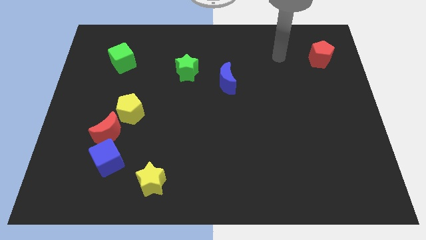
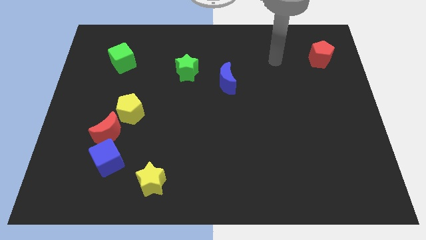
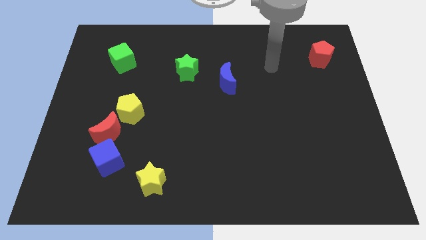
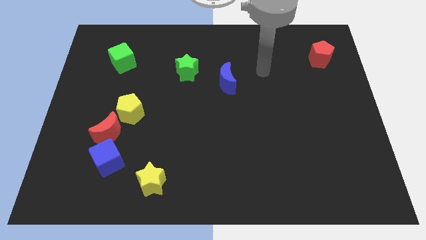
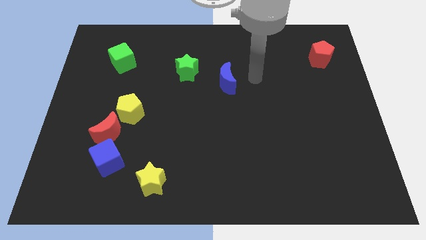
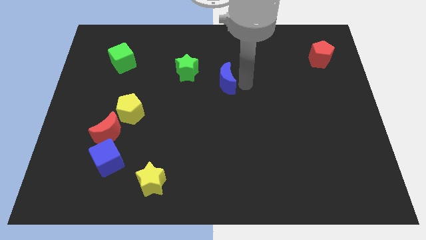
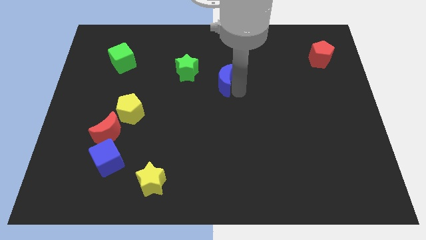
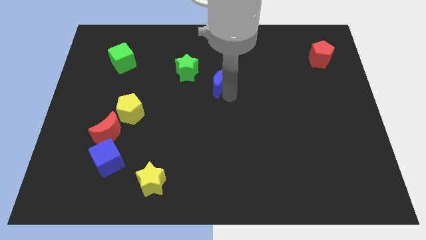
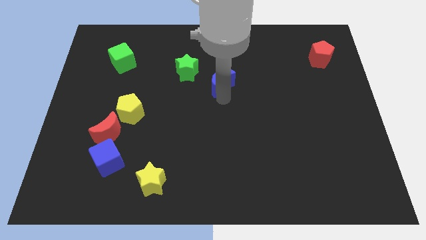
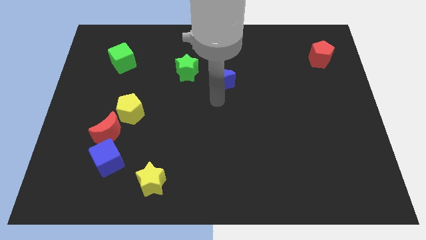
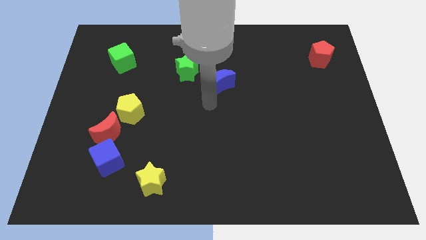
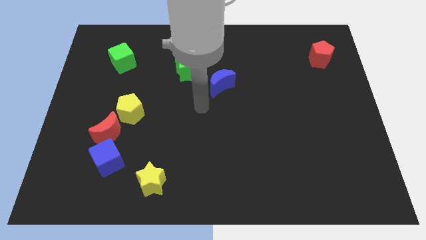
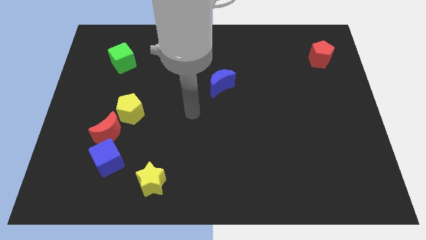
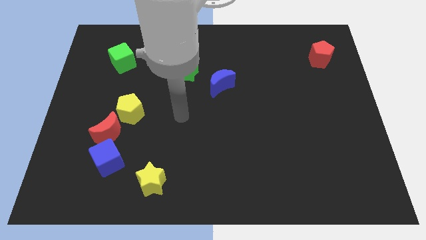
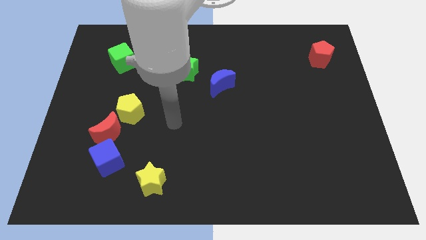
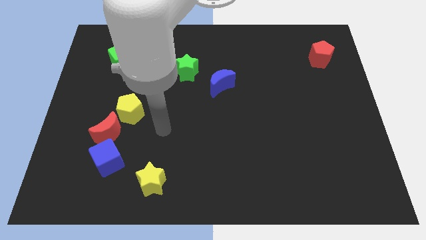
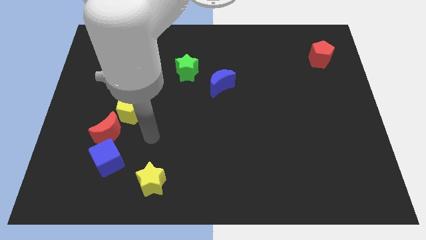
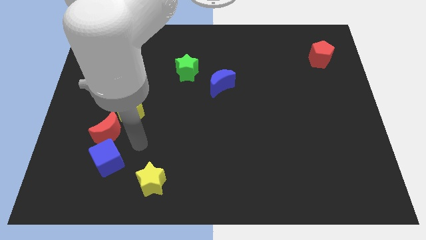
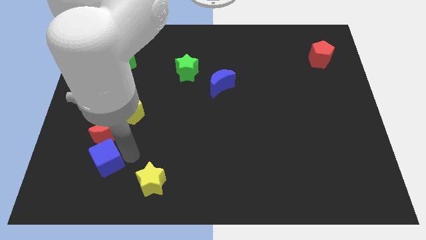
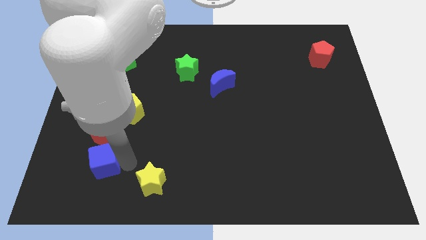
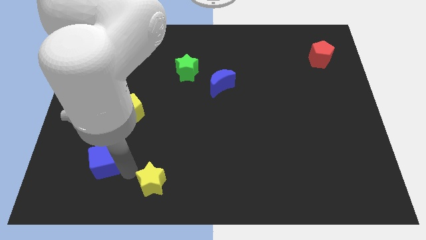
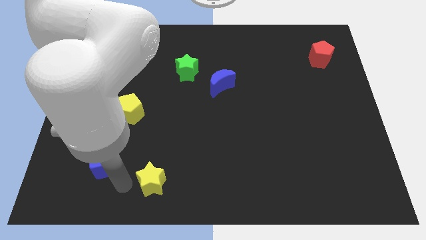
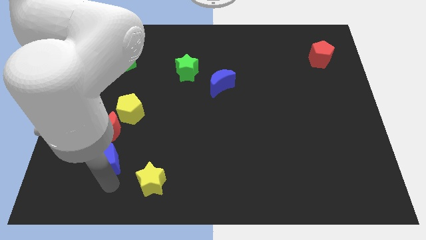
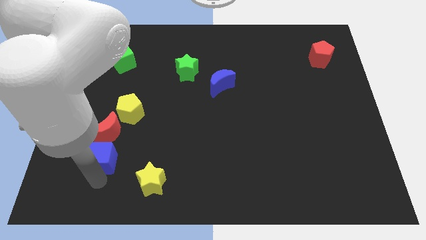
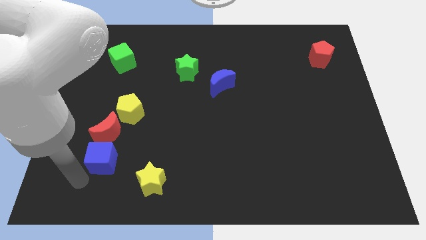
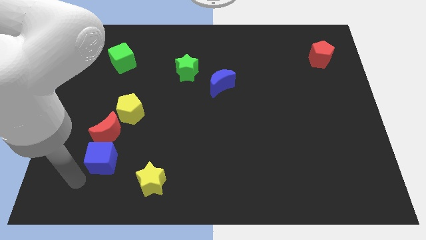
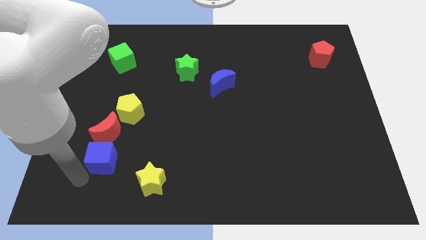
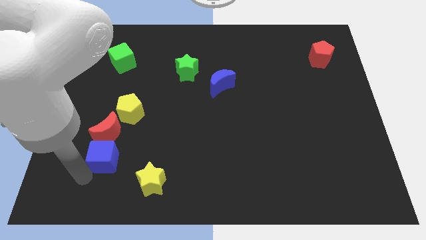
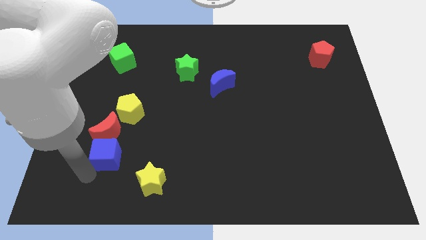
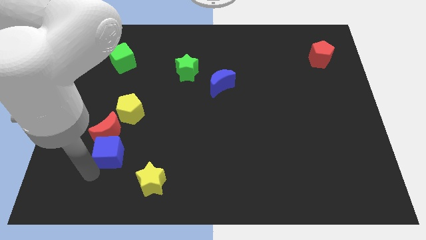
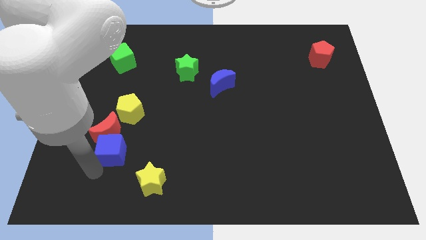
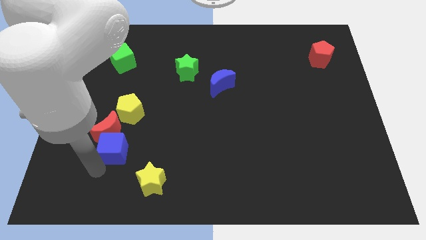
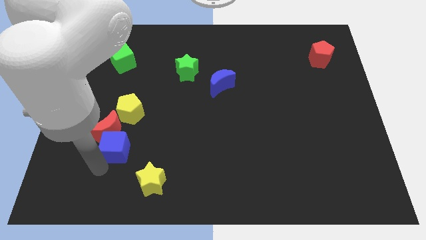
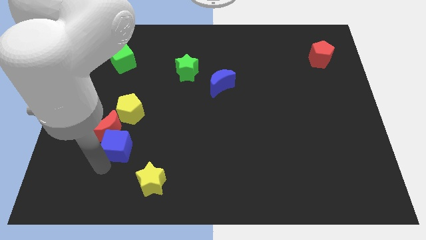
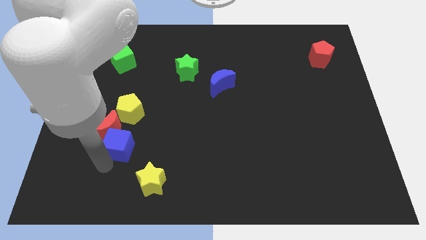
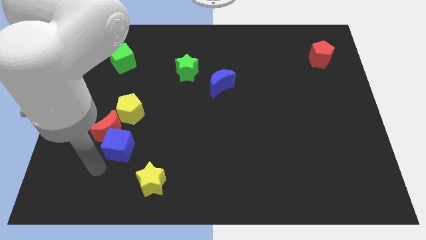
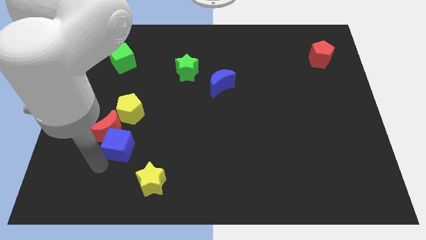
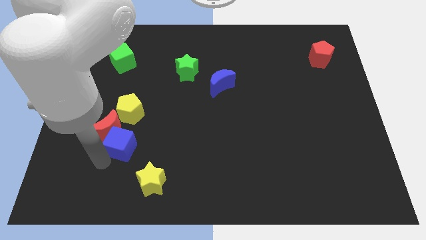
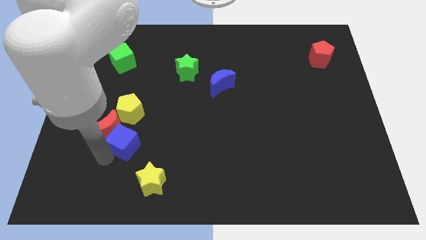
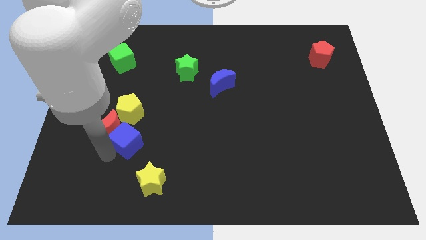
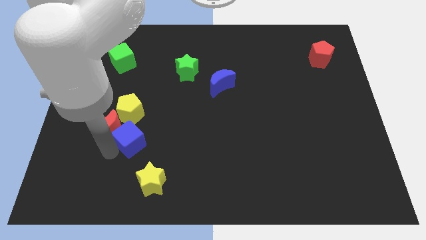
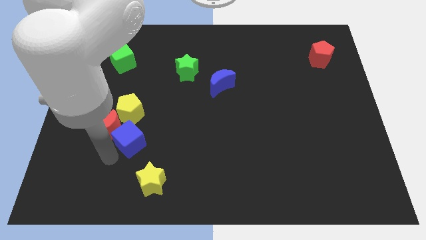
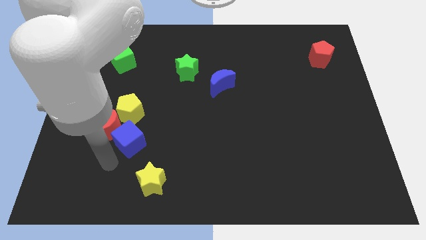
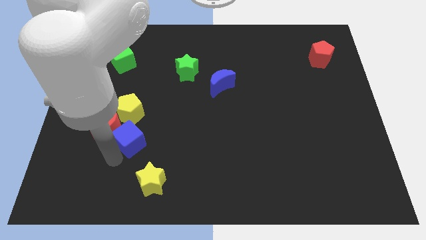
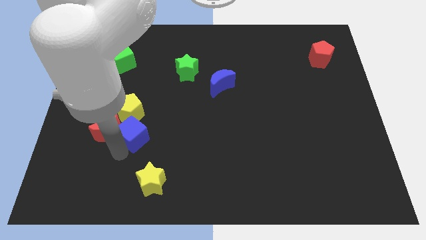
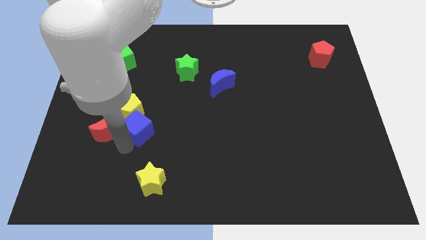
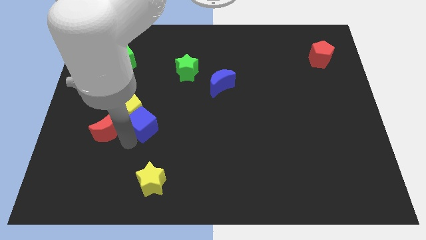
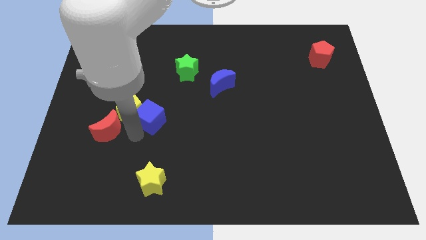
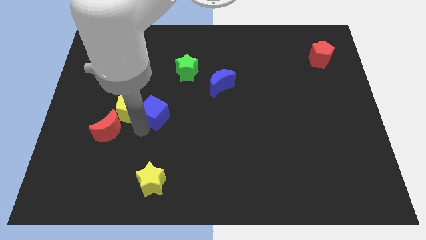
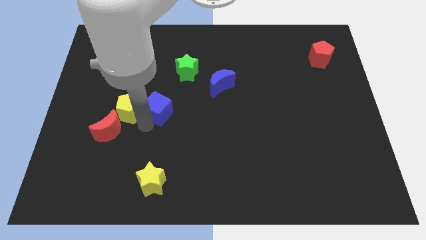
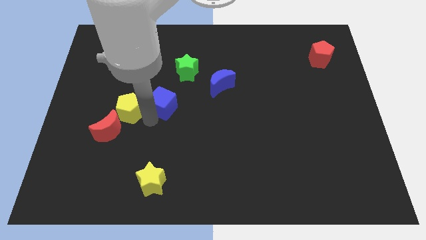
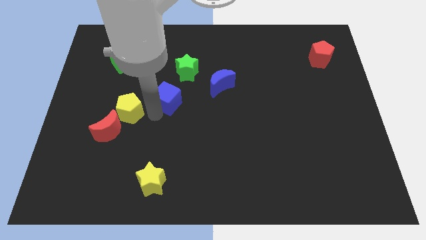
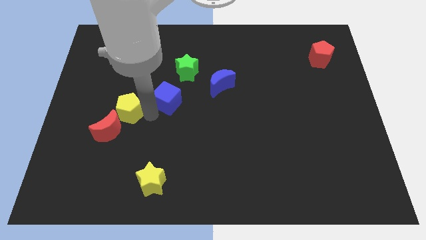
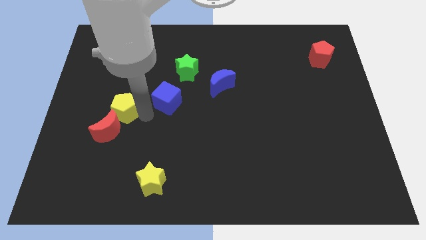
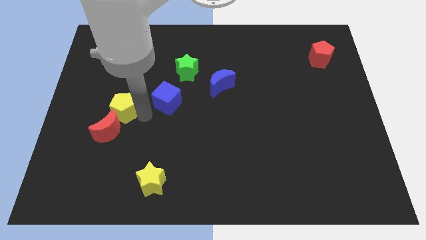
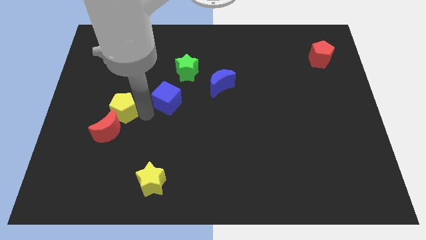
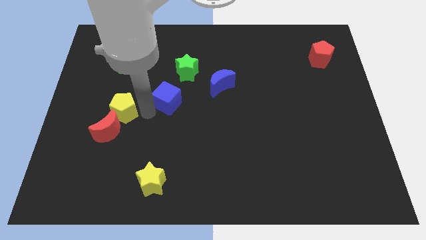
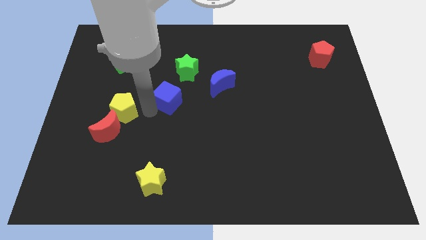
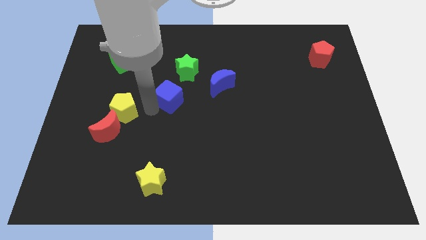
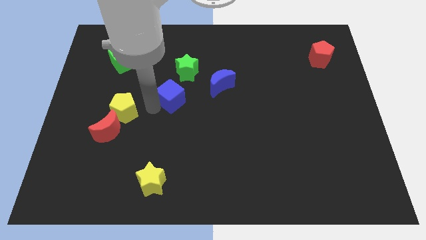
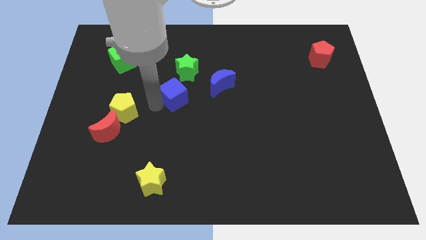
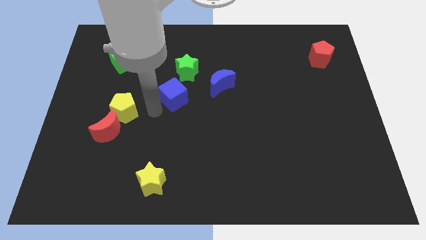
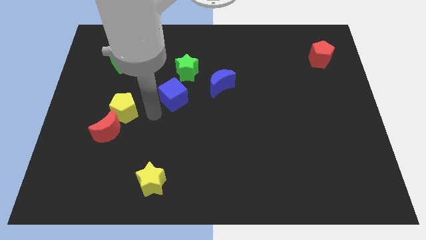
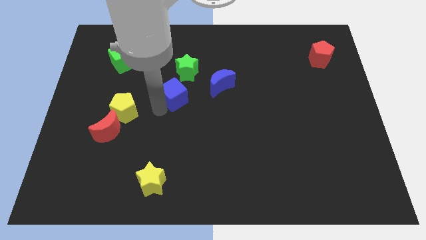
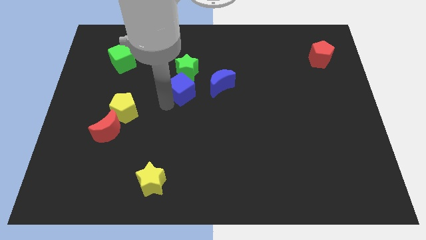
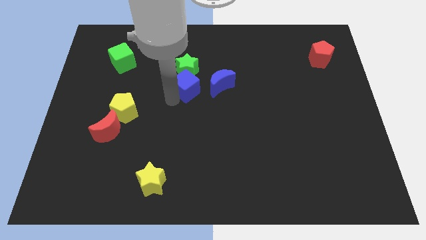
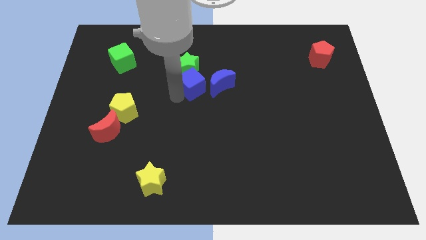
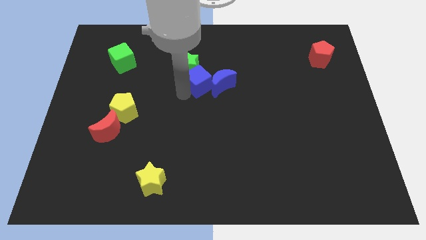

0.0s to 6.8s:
push the blue cube to the top left side of the blue moon

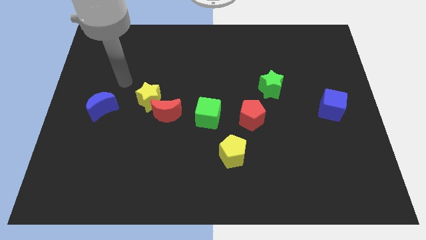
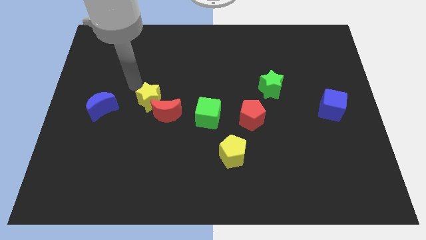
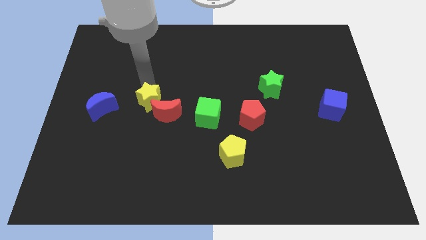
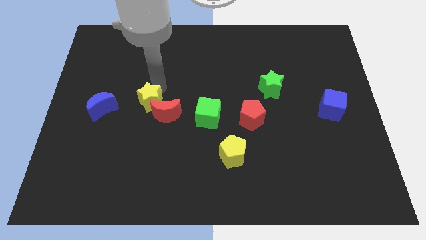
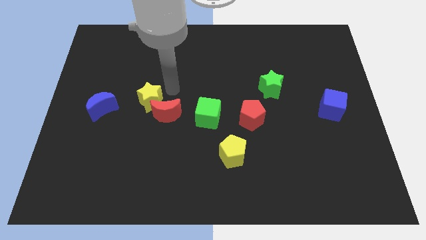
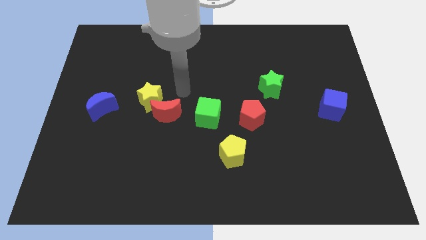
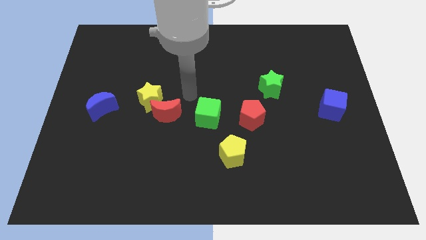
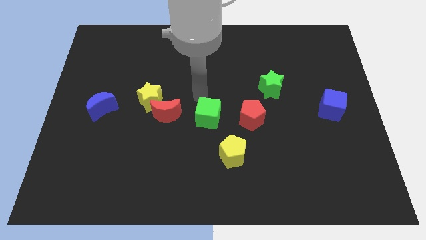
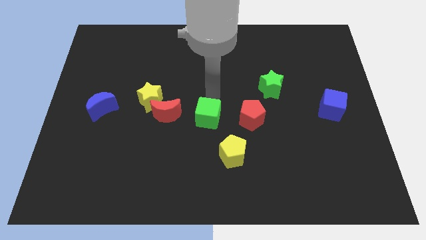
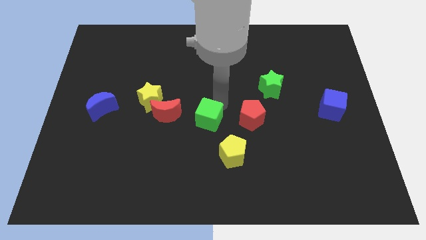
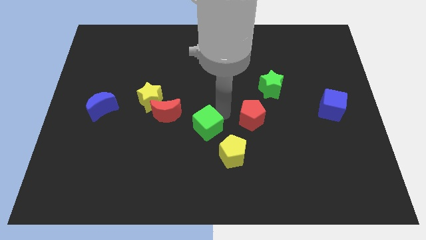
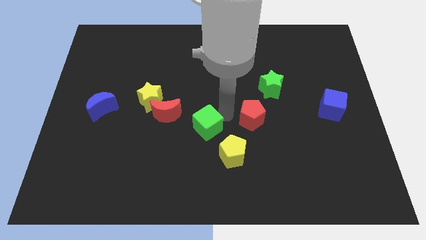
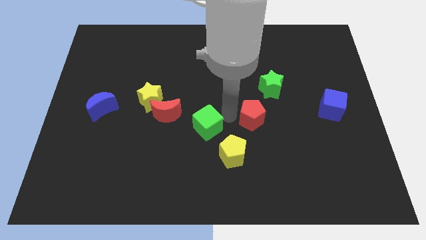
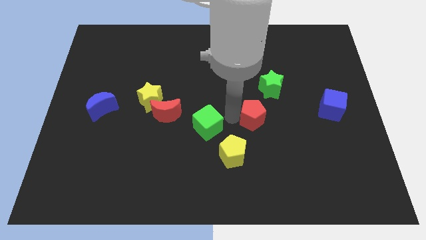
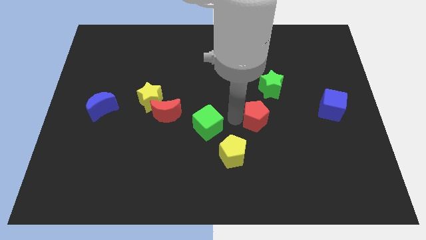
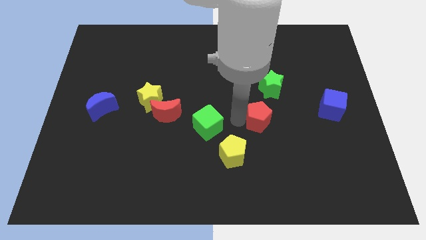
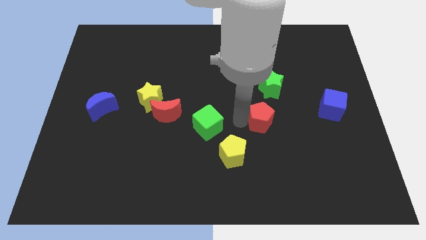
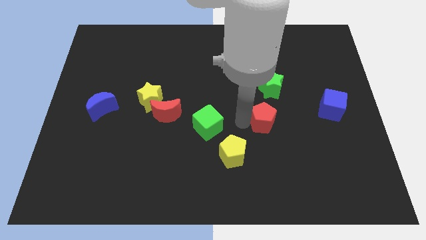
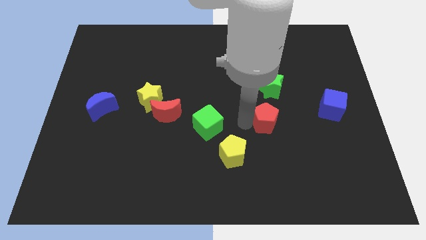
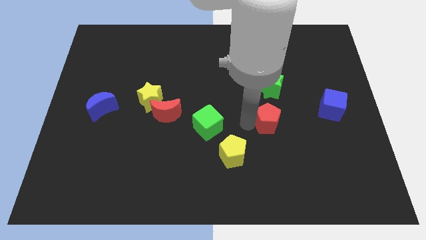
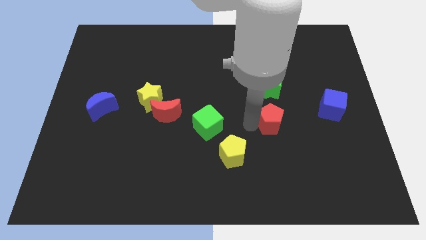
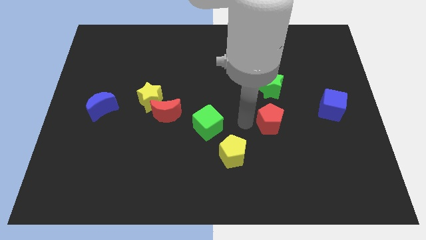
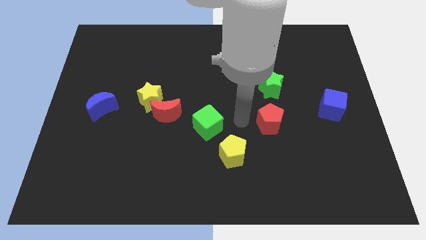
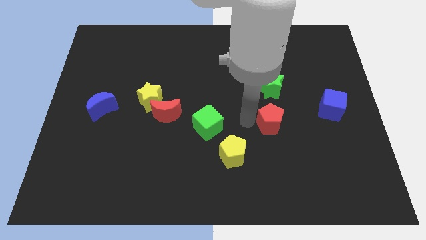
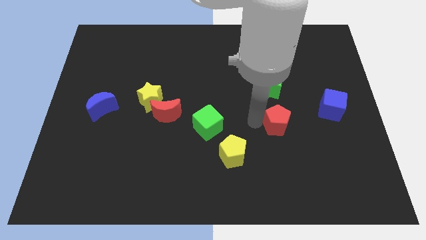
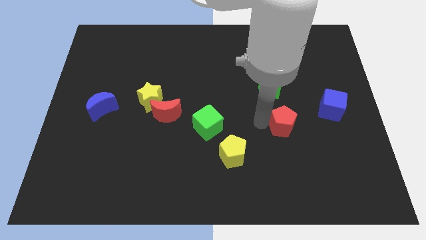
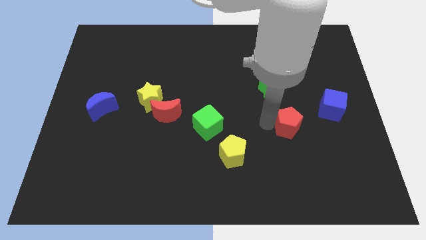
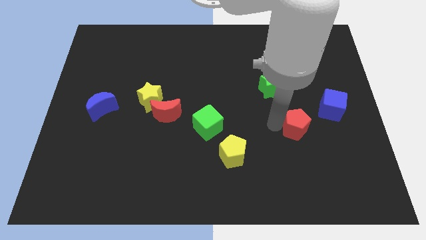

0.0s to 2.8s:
move the red pentagon to the bottom left of the blue cube
